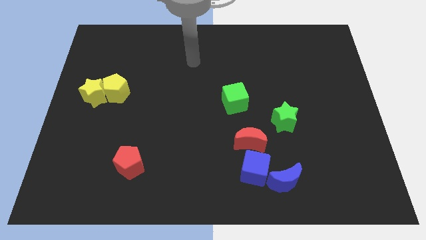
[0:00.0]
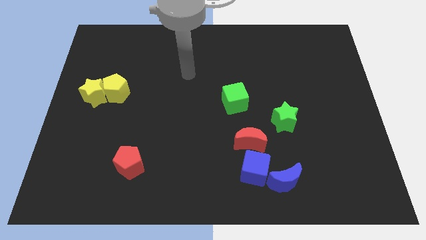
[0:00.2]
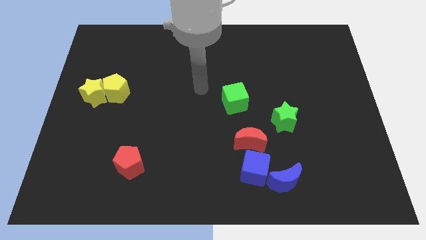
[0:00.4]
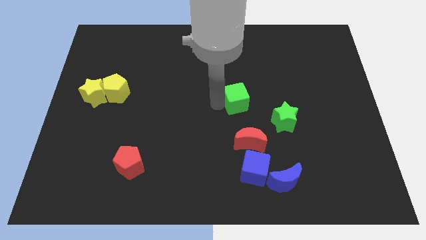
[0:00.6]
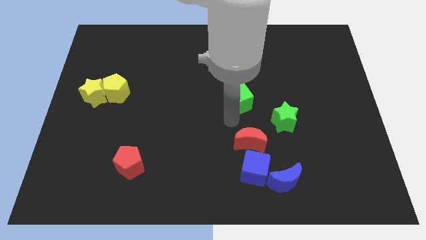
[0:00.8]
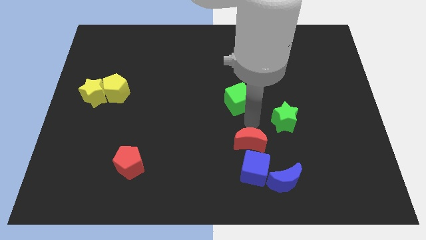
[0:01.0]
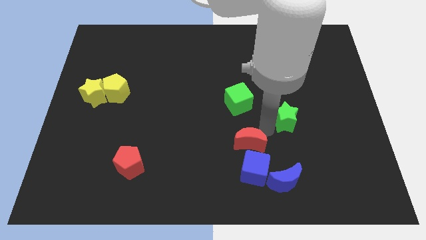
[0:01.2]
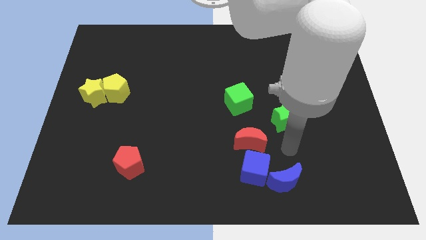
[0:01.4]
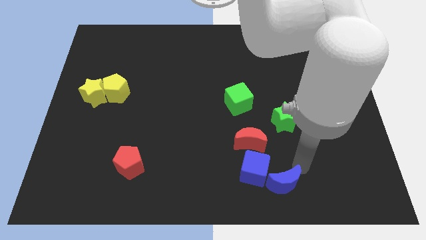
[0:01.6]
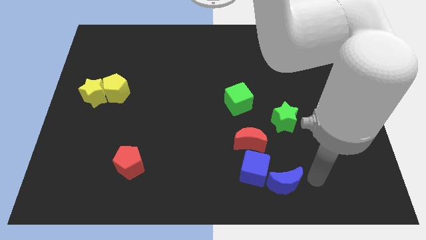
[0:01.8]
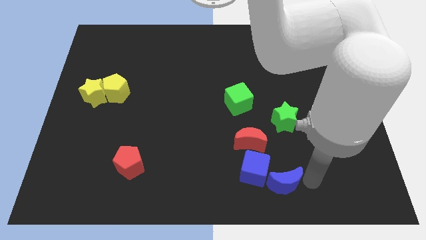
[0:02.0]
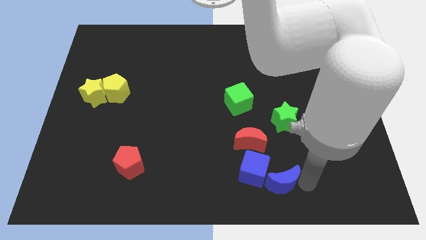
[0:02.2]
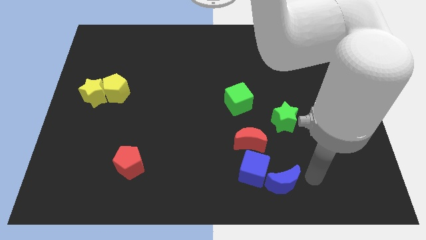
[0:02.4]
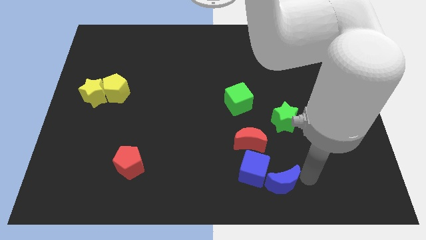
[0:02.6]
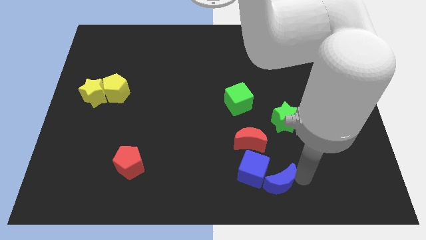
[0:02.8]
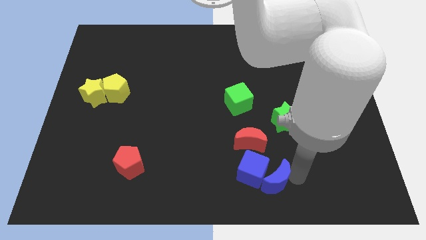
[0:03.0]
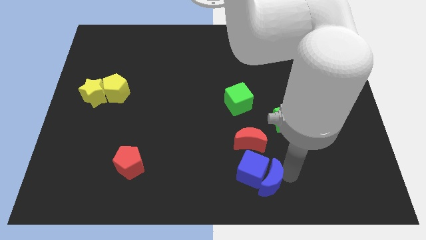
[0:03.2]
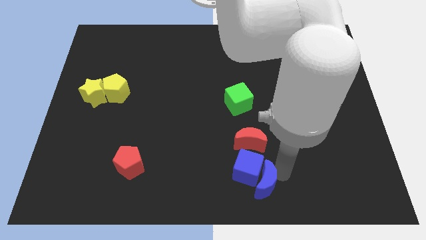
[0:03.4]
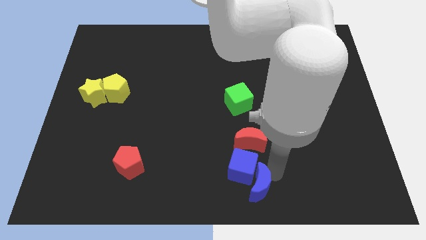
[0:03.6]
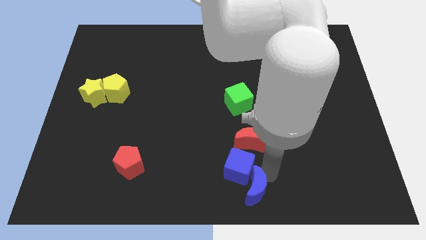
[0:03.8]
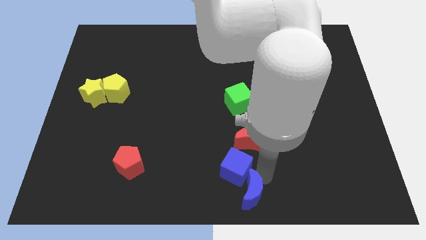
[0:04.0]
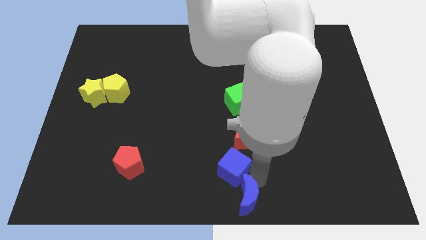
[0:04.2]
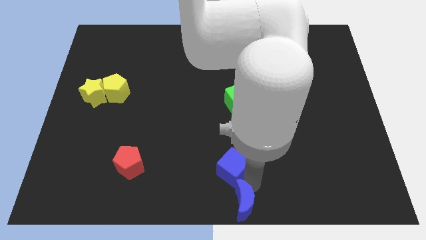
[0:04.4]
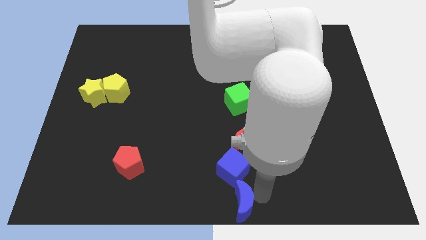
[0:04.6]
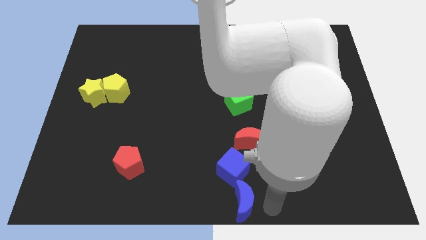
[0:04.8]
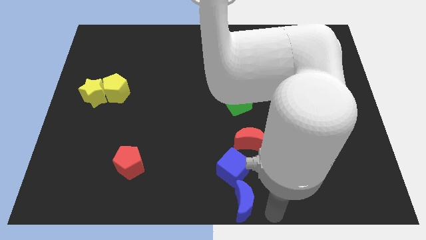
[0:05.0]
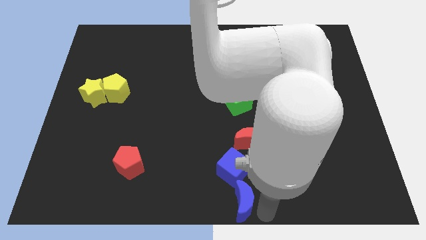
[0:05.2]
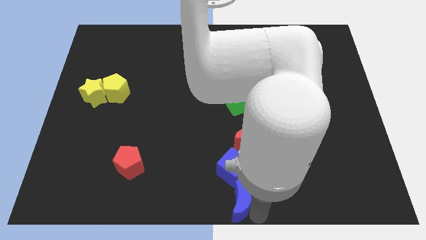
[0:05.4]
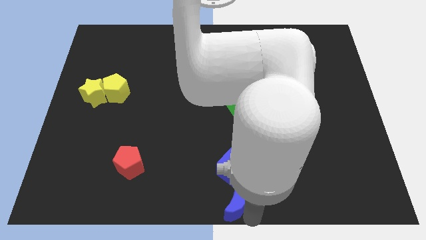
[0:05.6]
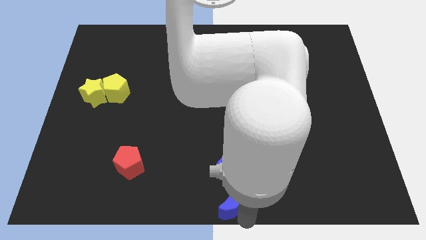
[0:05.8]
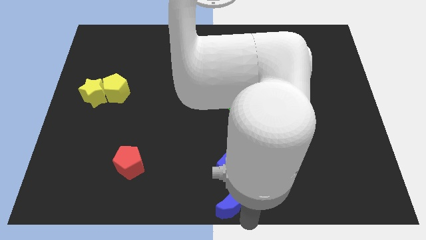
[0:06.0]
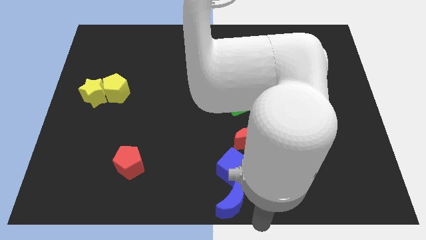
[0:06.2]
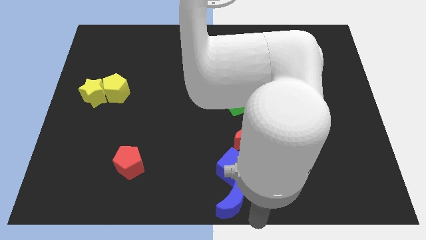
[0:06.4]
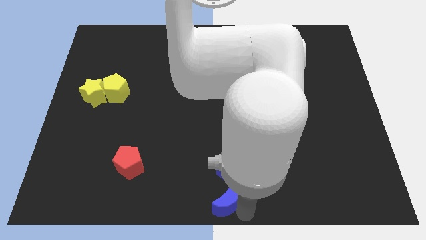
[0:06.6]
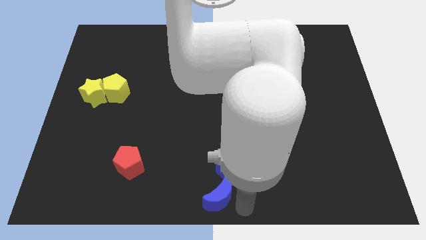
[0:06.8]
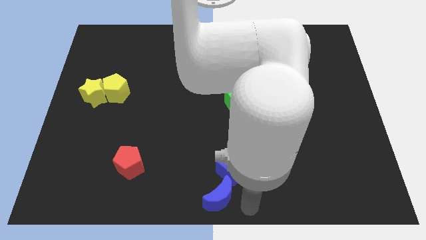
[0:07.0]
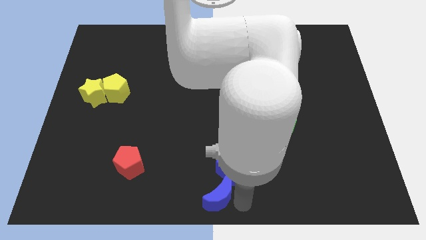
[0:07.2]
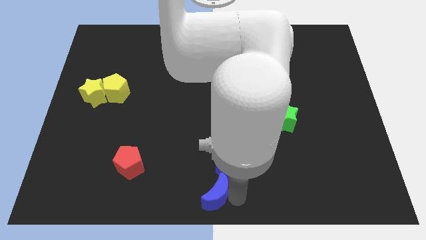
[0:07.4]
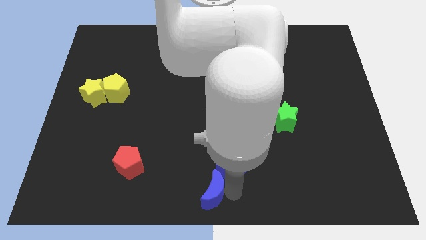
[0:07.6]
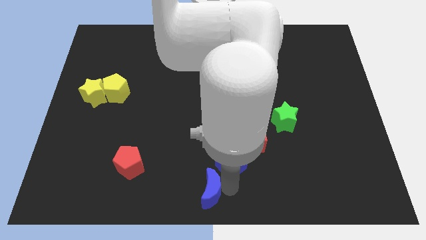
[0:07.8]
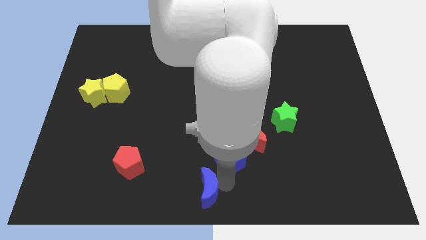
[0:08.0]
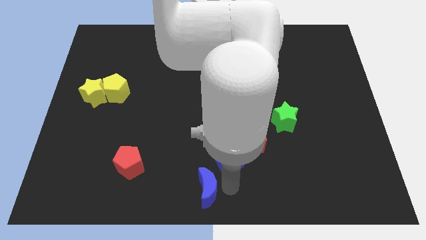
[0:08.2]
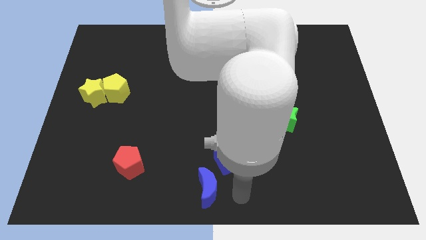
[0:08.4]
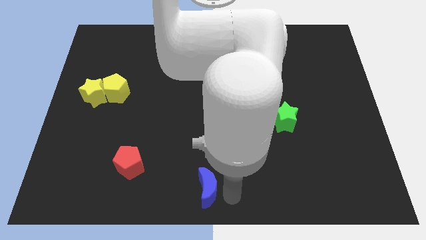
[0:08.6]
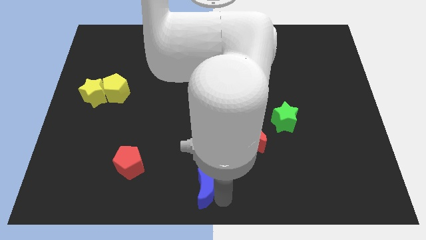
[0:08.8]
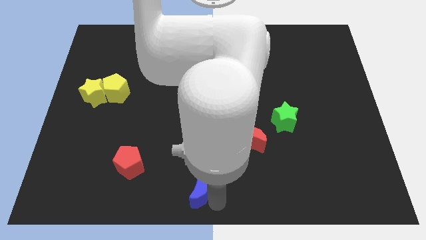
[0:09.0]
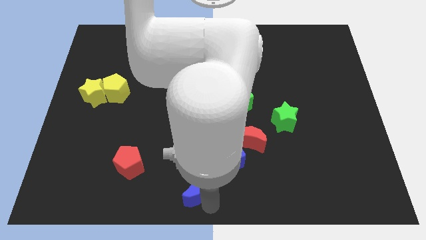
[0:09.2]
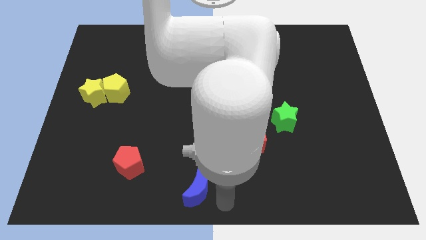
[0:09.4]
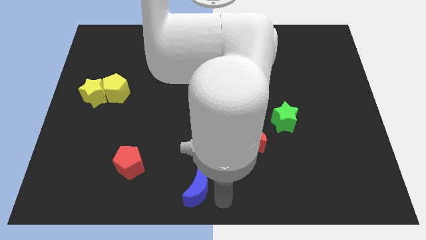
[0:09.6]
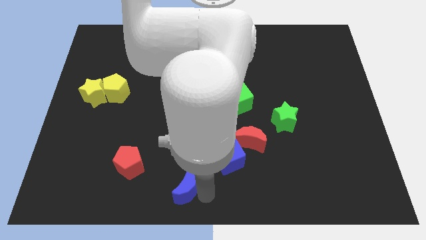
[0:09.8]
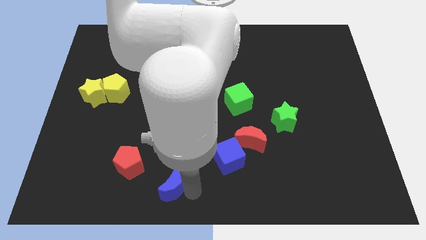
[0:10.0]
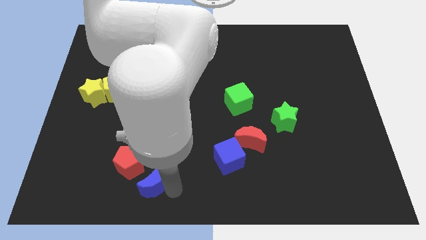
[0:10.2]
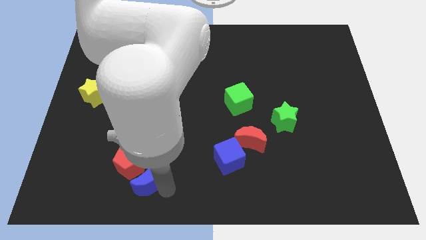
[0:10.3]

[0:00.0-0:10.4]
slide the blue moon to the red pentagon

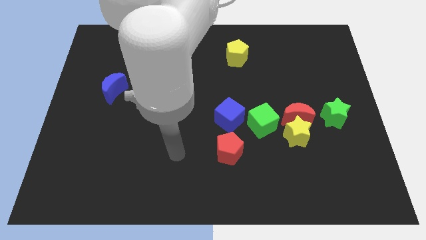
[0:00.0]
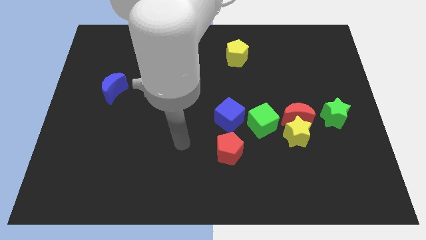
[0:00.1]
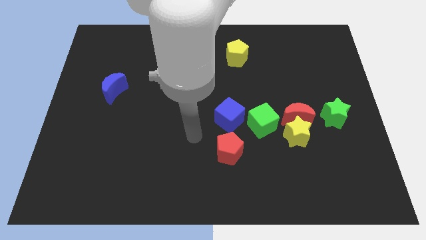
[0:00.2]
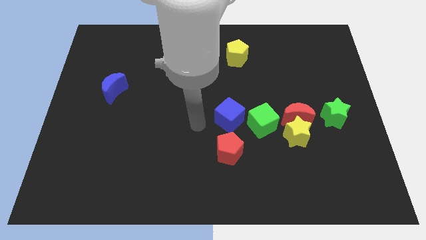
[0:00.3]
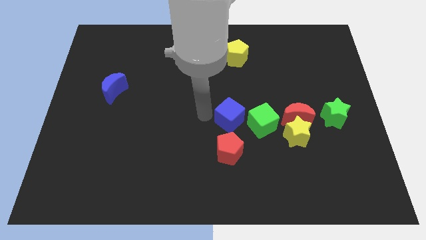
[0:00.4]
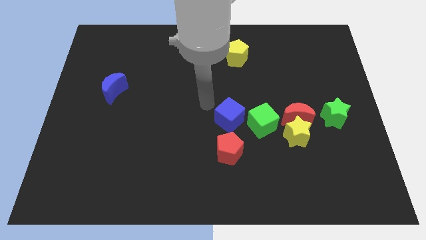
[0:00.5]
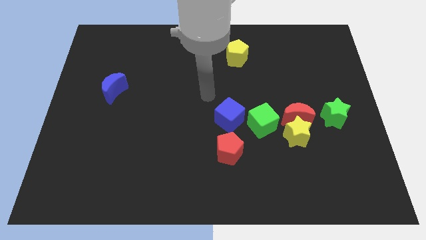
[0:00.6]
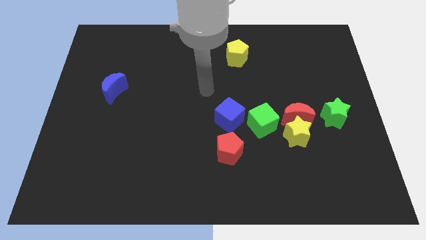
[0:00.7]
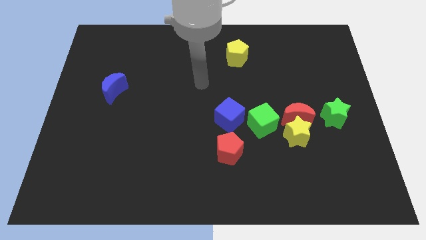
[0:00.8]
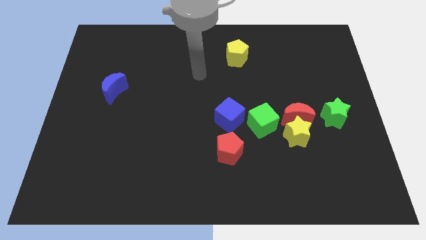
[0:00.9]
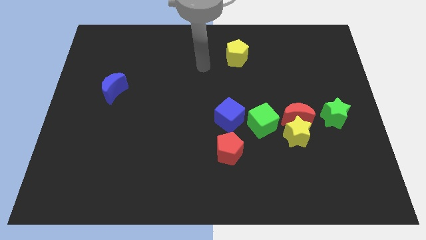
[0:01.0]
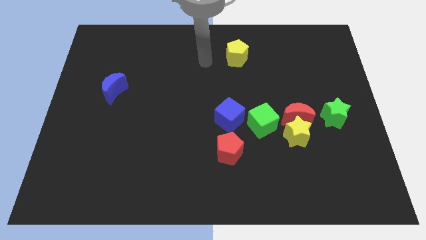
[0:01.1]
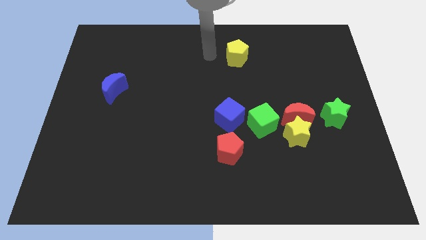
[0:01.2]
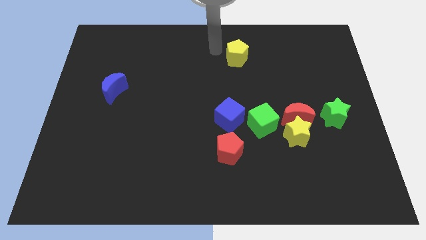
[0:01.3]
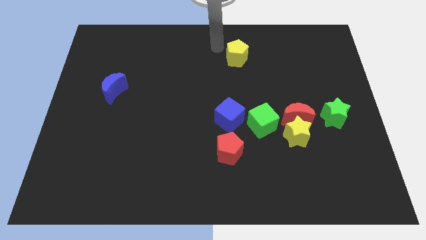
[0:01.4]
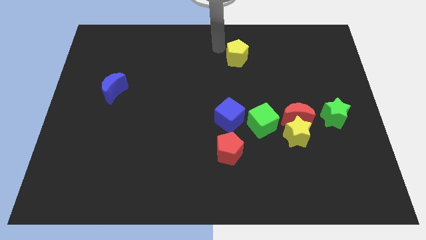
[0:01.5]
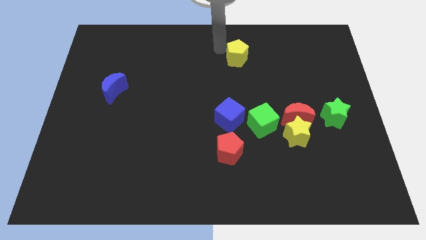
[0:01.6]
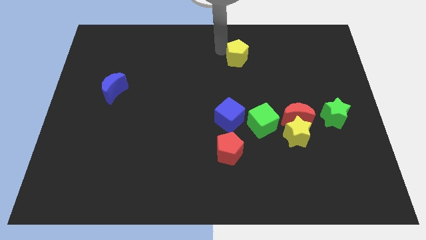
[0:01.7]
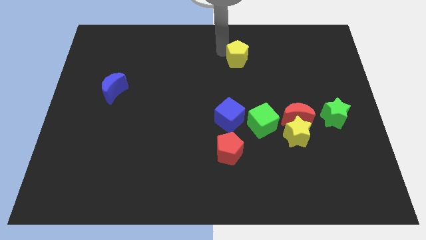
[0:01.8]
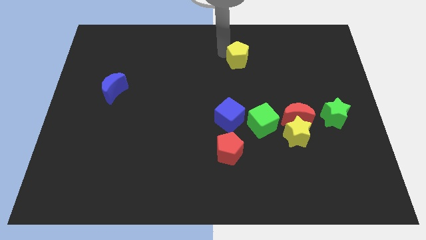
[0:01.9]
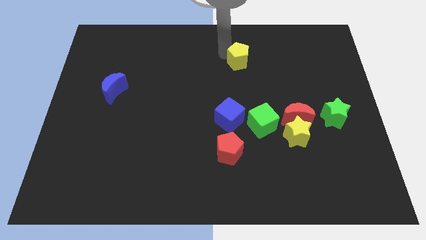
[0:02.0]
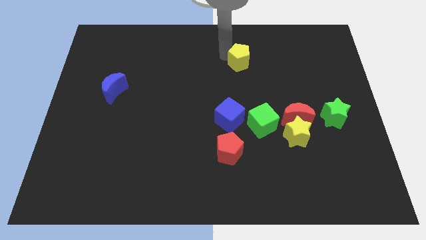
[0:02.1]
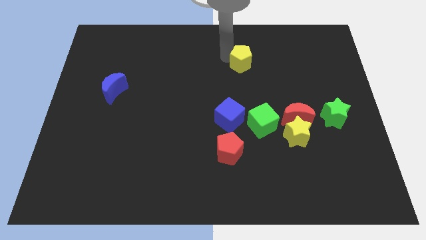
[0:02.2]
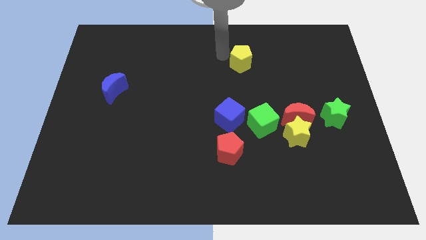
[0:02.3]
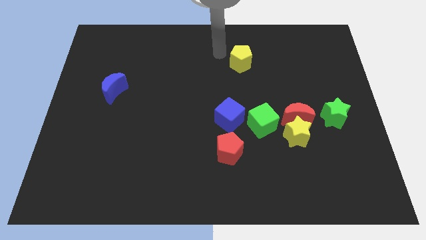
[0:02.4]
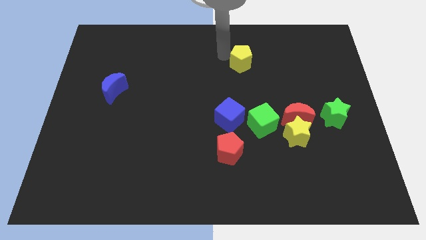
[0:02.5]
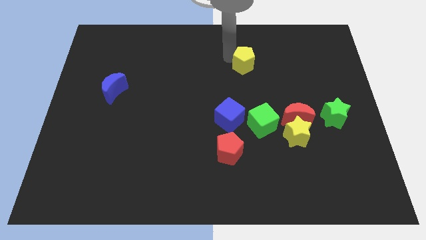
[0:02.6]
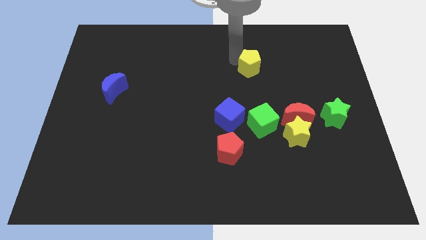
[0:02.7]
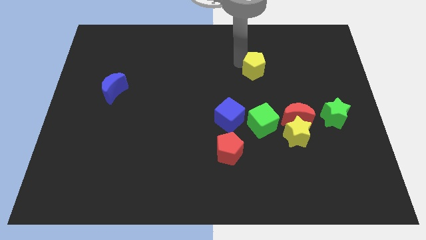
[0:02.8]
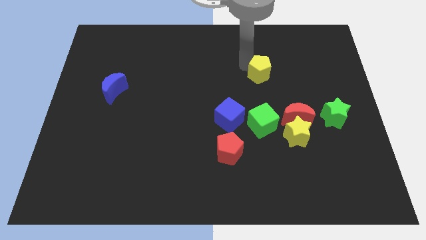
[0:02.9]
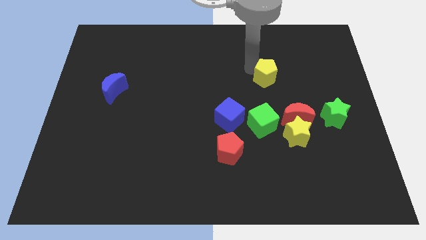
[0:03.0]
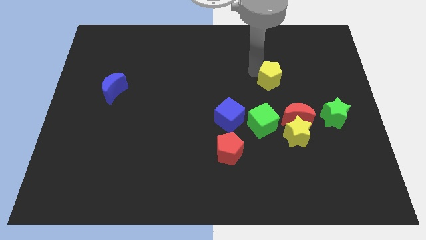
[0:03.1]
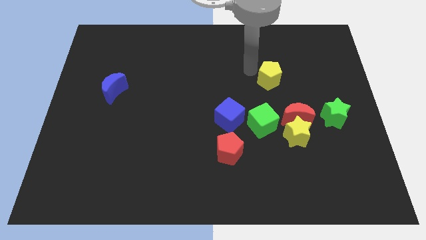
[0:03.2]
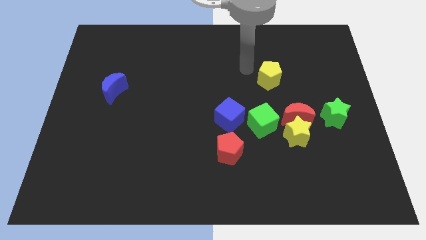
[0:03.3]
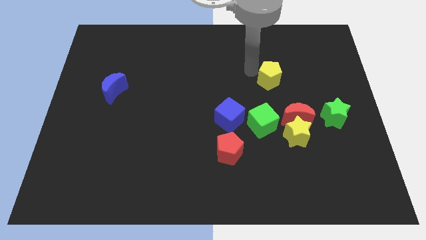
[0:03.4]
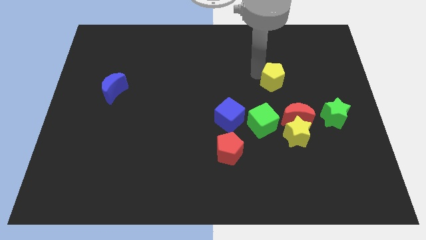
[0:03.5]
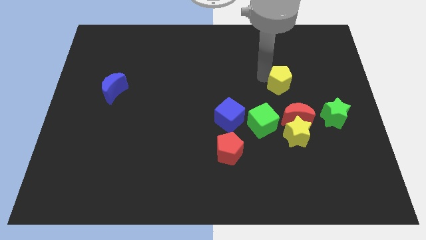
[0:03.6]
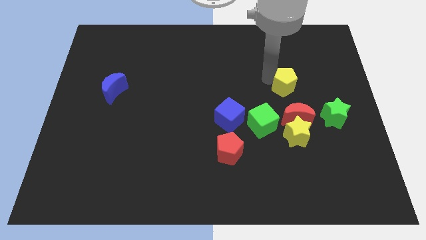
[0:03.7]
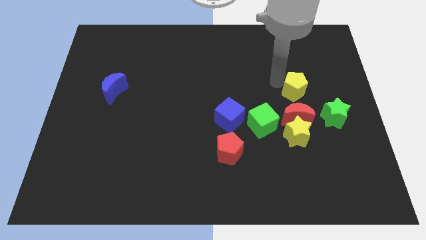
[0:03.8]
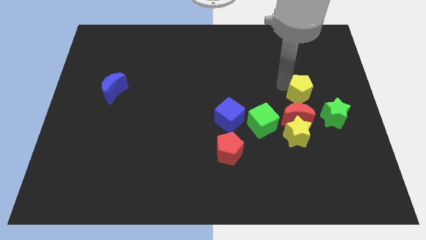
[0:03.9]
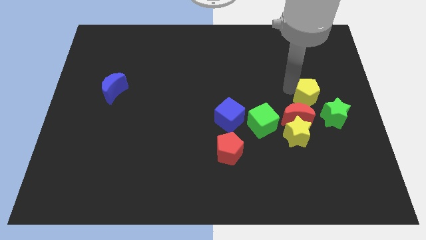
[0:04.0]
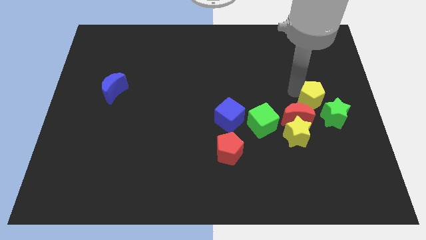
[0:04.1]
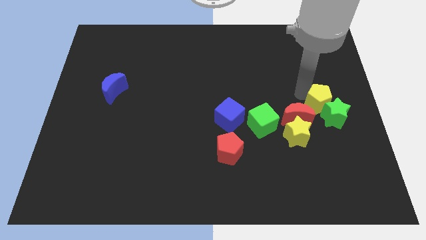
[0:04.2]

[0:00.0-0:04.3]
push the yellow pentagon close to the green star
